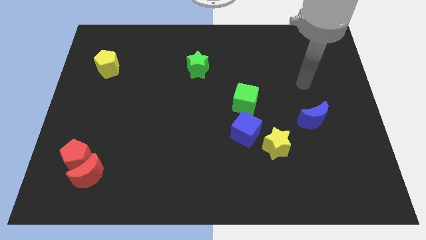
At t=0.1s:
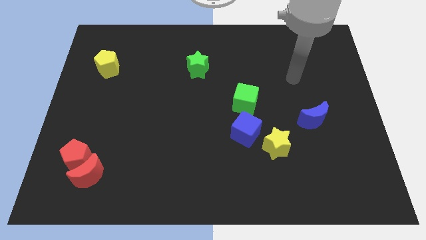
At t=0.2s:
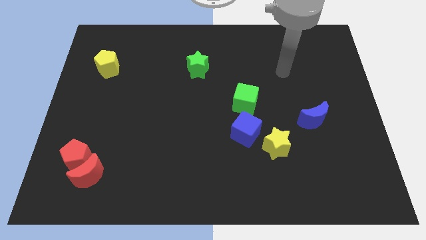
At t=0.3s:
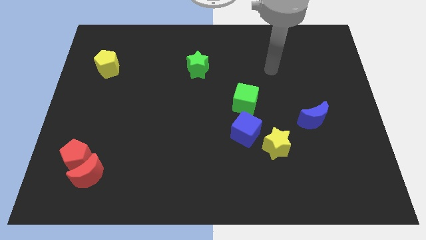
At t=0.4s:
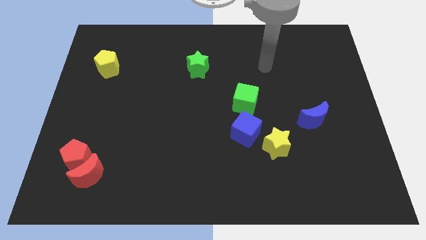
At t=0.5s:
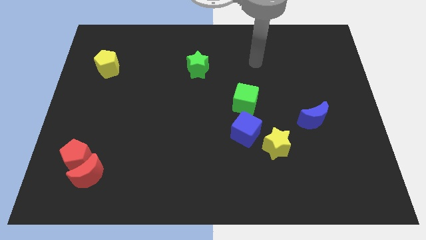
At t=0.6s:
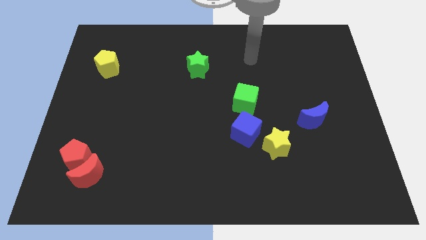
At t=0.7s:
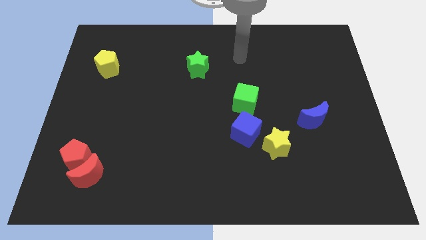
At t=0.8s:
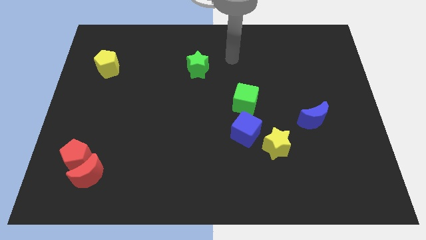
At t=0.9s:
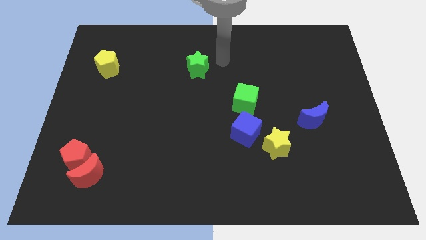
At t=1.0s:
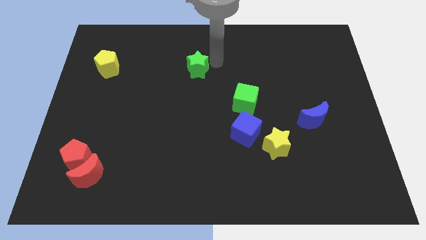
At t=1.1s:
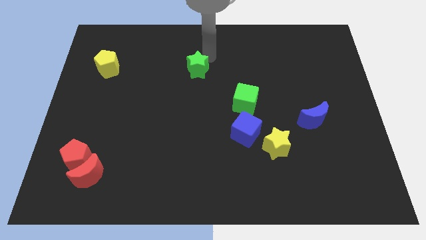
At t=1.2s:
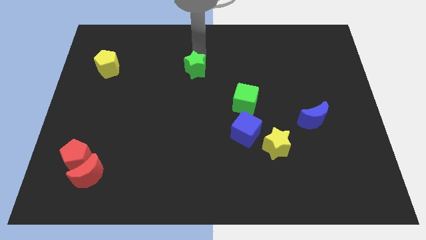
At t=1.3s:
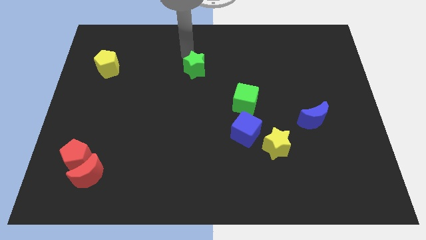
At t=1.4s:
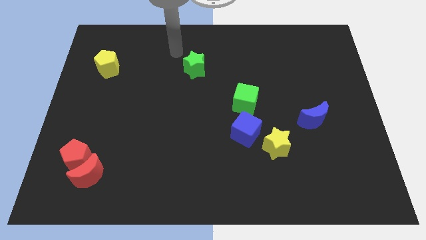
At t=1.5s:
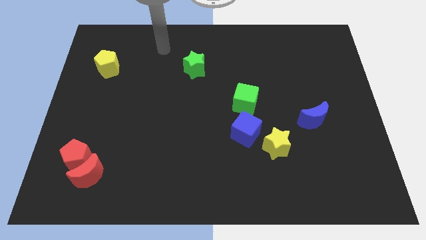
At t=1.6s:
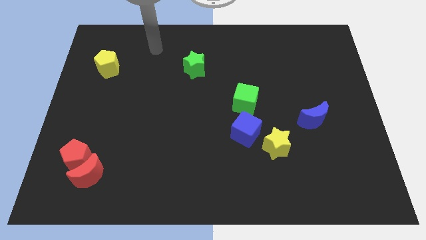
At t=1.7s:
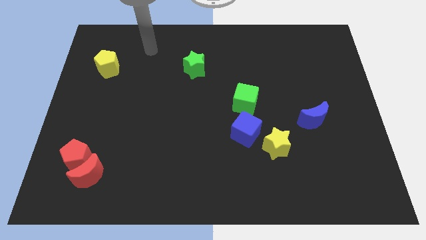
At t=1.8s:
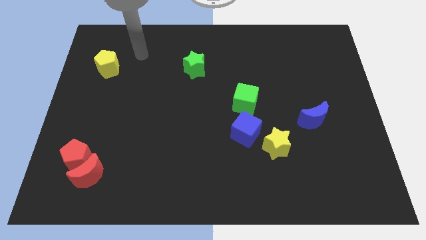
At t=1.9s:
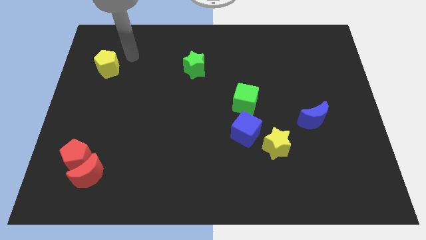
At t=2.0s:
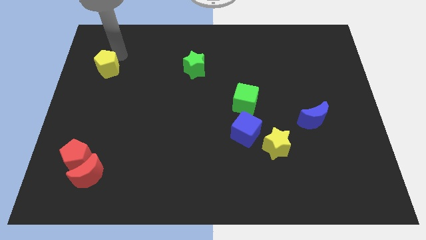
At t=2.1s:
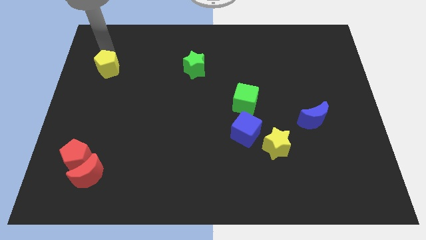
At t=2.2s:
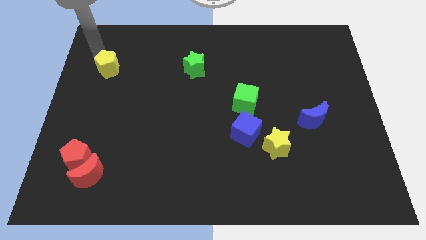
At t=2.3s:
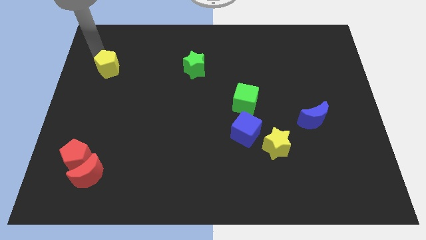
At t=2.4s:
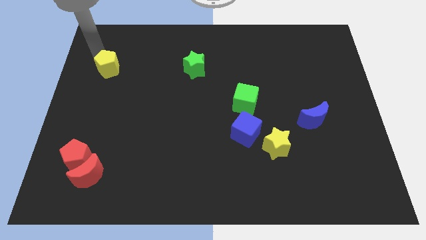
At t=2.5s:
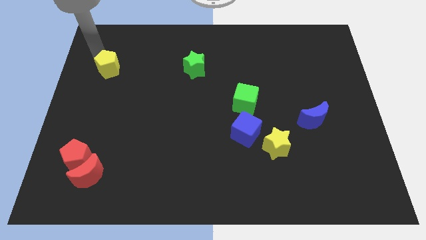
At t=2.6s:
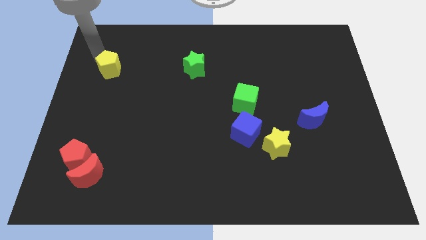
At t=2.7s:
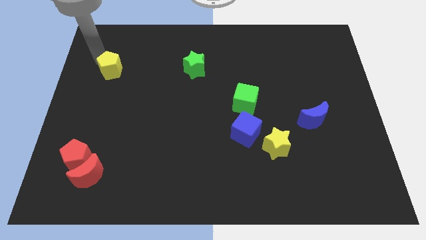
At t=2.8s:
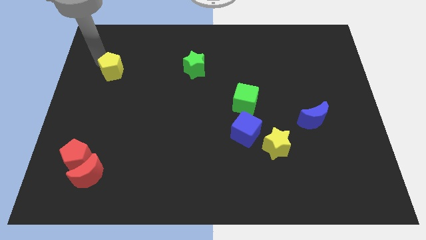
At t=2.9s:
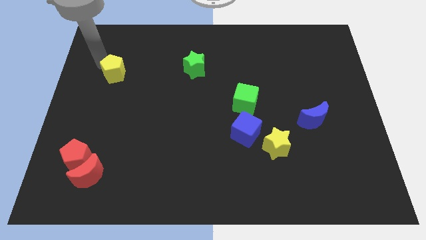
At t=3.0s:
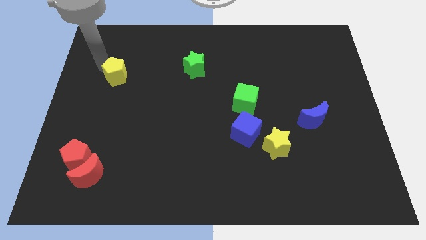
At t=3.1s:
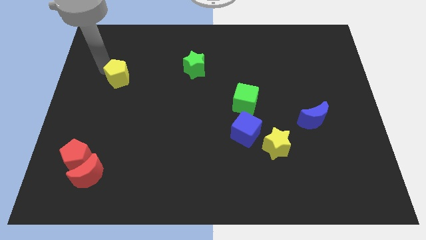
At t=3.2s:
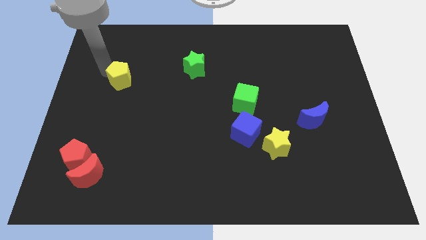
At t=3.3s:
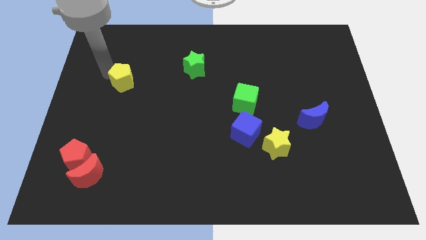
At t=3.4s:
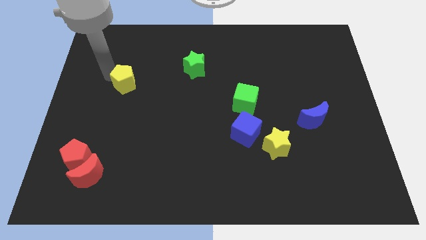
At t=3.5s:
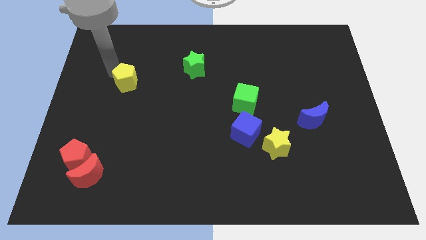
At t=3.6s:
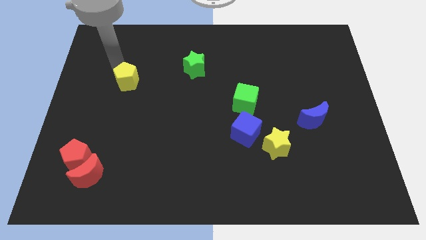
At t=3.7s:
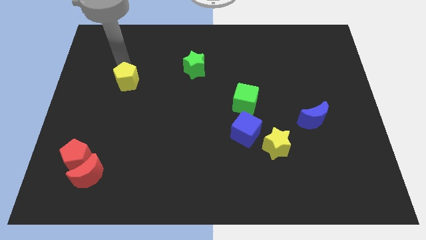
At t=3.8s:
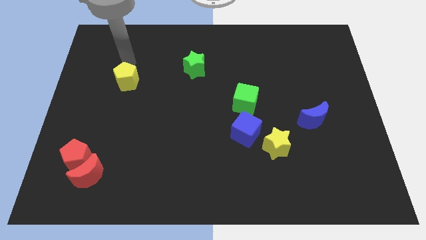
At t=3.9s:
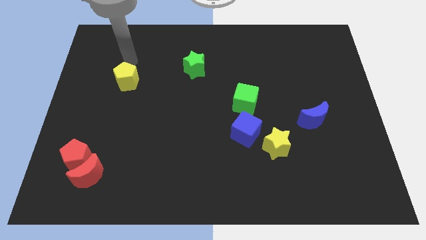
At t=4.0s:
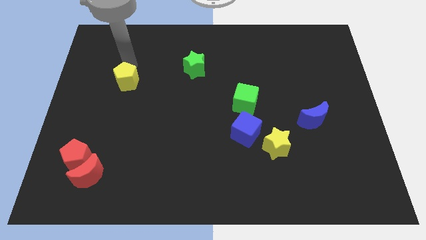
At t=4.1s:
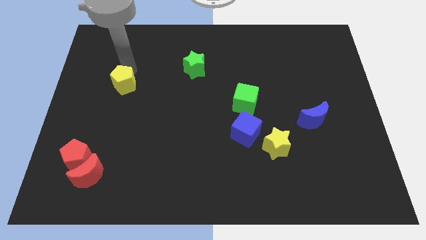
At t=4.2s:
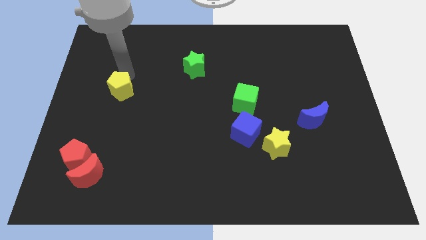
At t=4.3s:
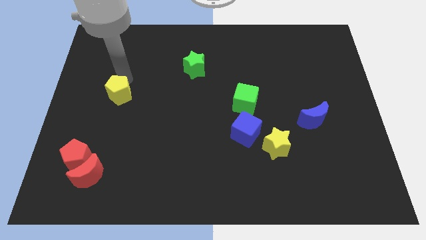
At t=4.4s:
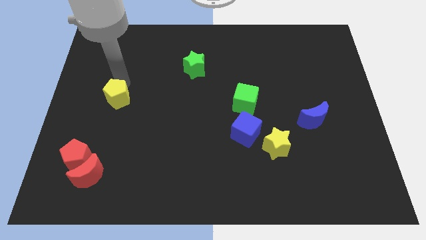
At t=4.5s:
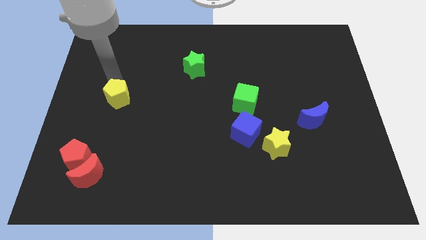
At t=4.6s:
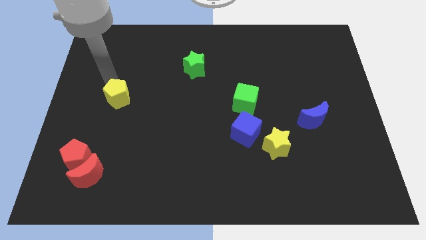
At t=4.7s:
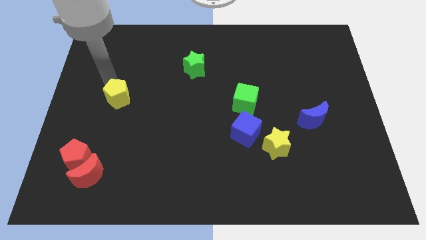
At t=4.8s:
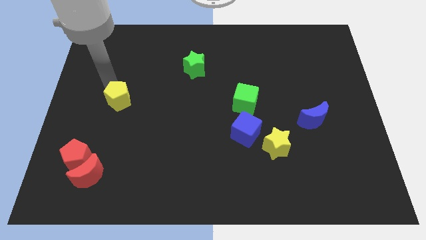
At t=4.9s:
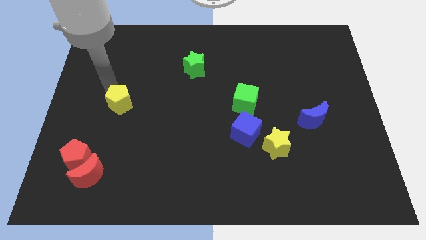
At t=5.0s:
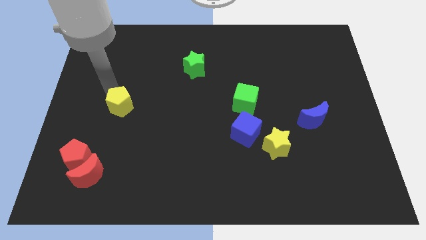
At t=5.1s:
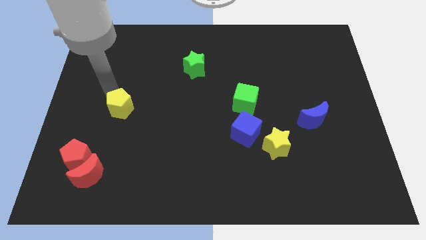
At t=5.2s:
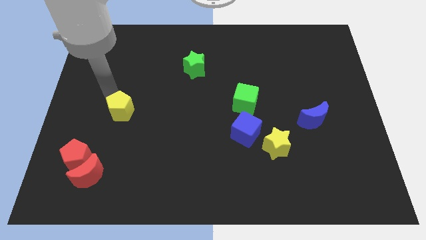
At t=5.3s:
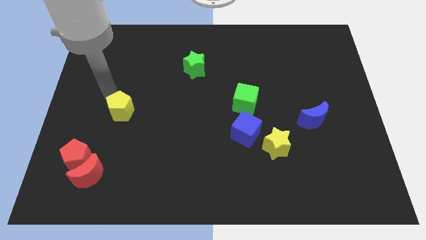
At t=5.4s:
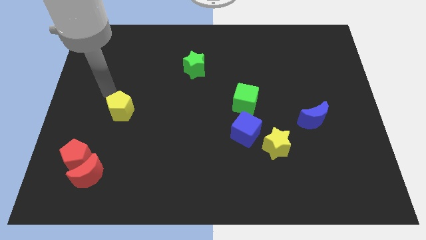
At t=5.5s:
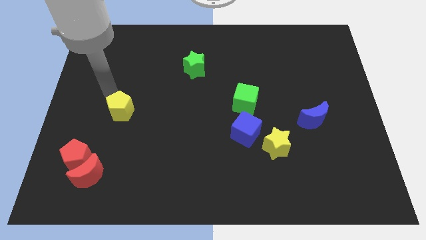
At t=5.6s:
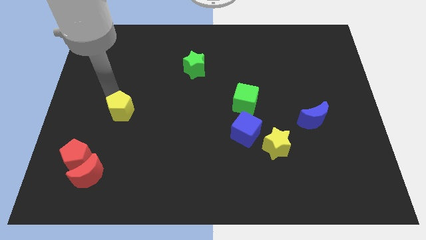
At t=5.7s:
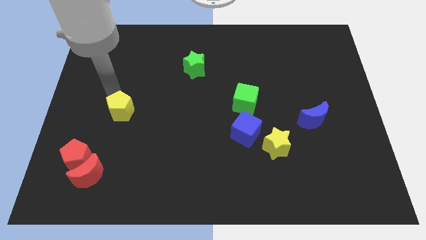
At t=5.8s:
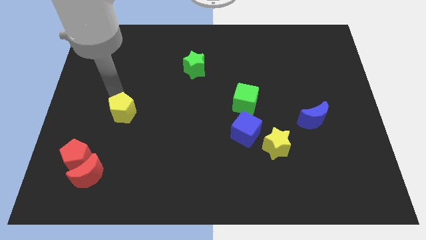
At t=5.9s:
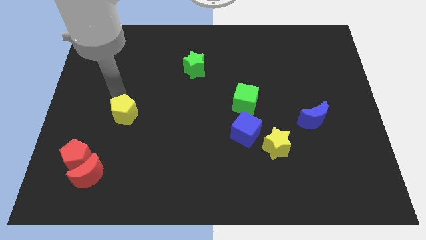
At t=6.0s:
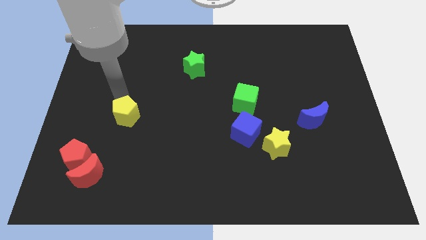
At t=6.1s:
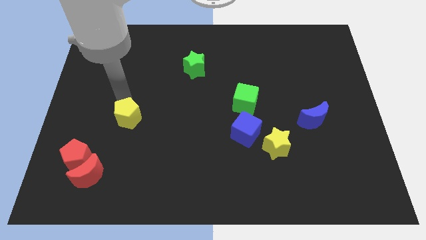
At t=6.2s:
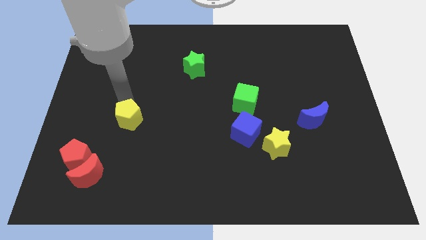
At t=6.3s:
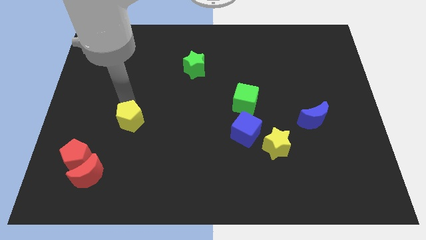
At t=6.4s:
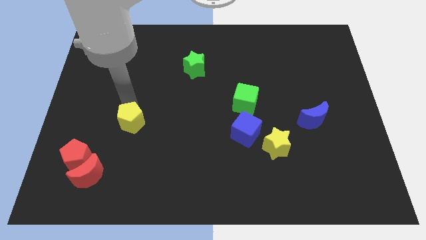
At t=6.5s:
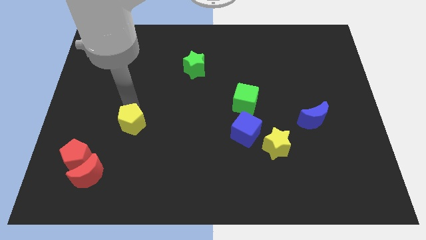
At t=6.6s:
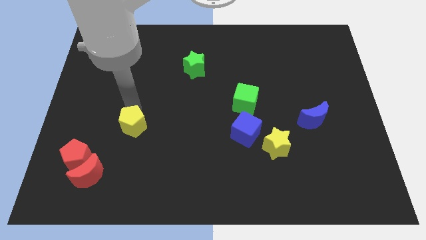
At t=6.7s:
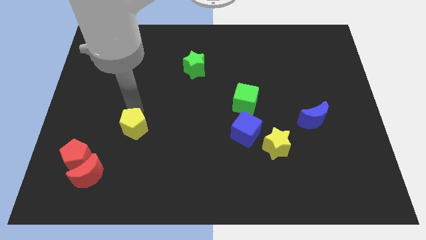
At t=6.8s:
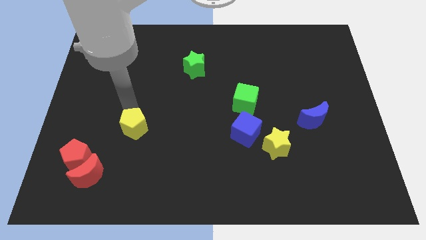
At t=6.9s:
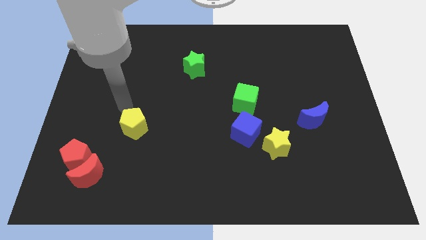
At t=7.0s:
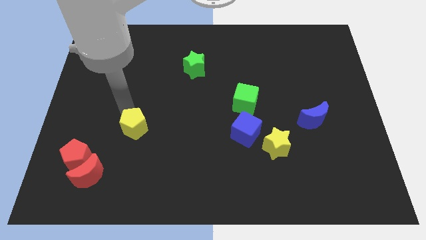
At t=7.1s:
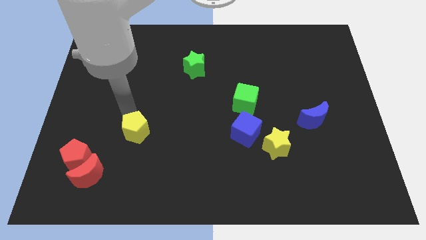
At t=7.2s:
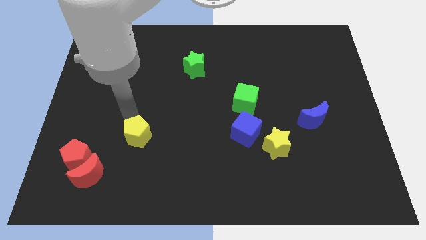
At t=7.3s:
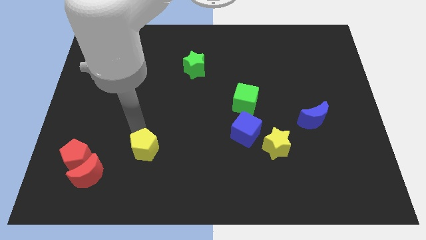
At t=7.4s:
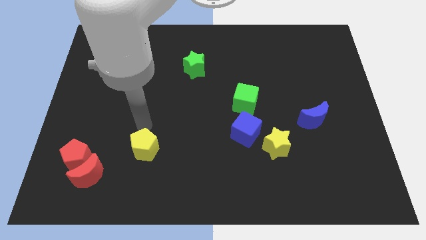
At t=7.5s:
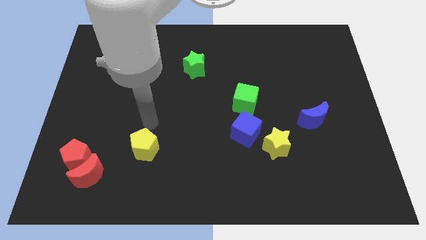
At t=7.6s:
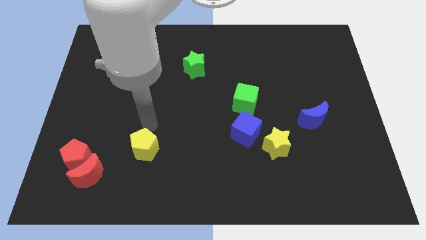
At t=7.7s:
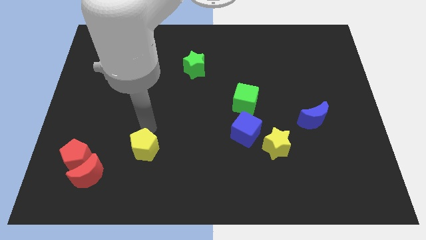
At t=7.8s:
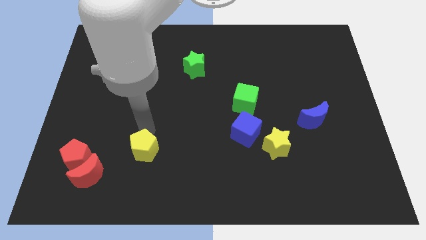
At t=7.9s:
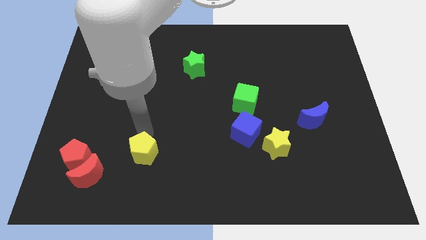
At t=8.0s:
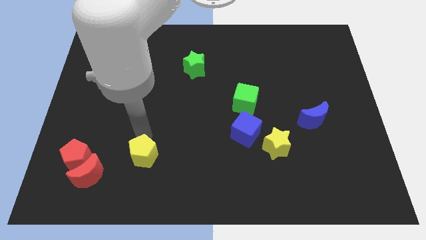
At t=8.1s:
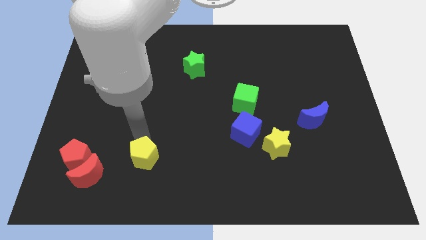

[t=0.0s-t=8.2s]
move the yellow pentagon to the right of the red moon
